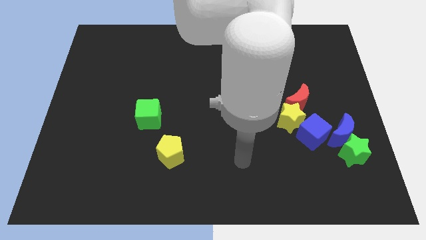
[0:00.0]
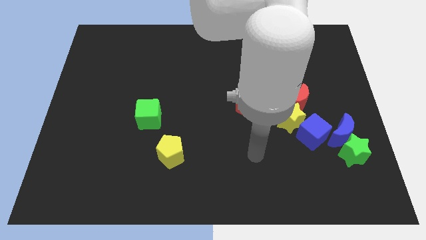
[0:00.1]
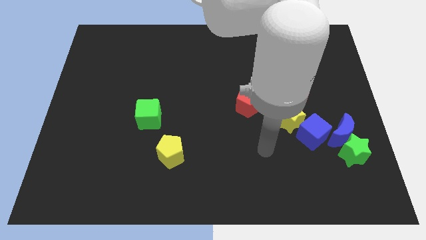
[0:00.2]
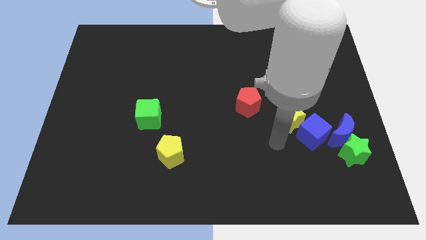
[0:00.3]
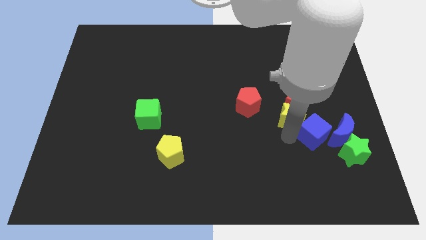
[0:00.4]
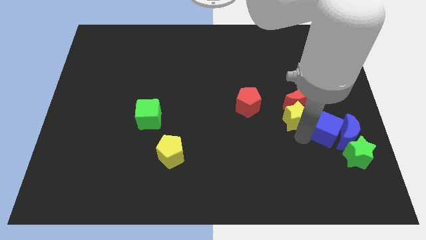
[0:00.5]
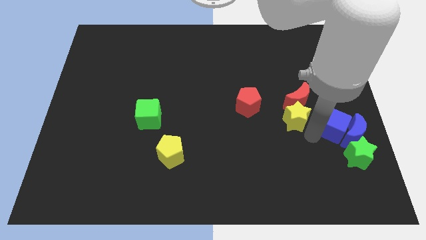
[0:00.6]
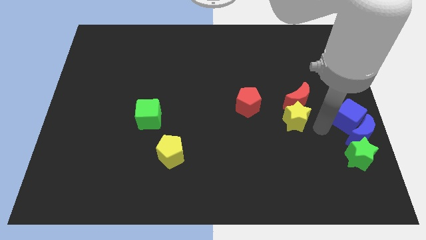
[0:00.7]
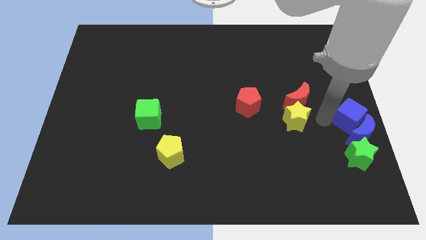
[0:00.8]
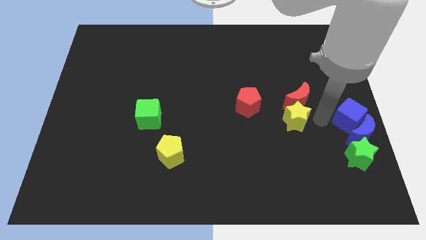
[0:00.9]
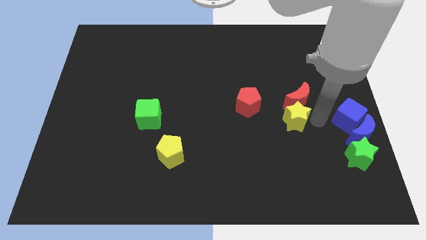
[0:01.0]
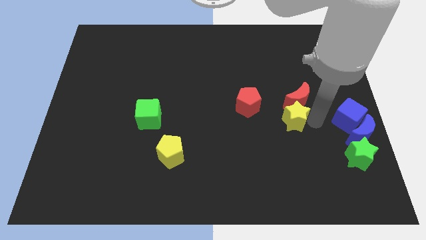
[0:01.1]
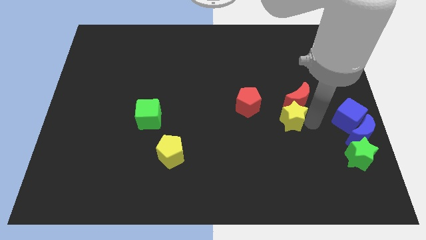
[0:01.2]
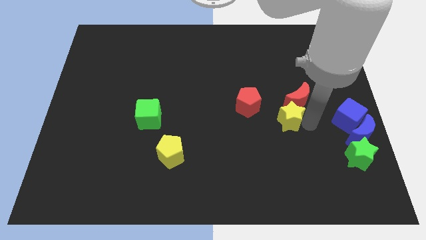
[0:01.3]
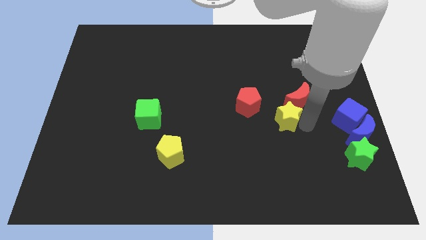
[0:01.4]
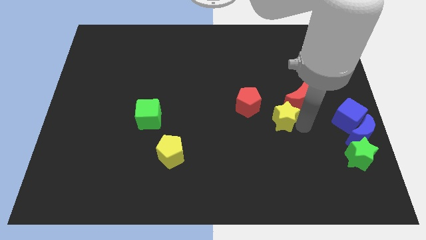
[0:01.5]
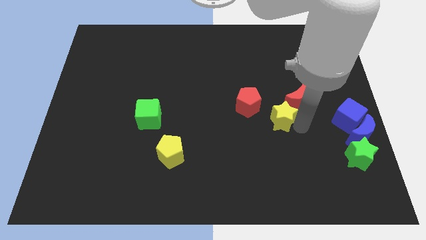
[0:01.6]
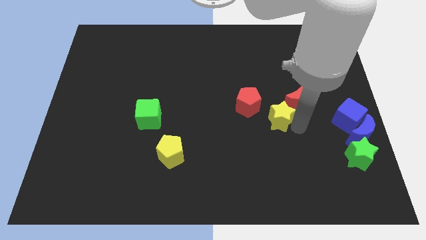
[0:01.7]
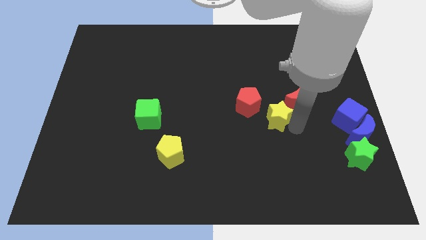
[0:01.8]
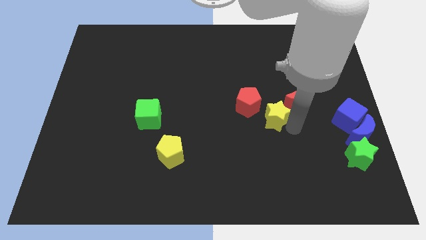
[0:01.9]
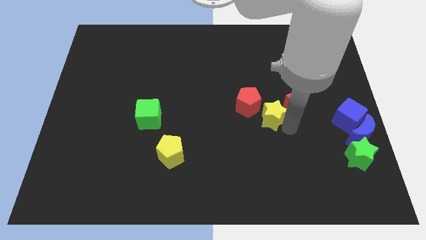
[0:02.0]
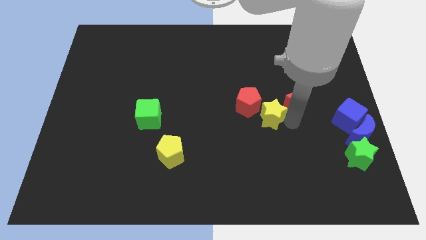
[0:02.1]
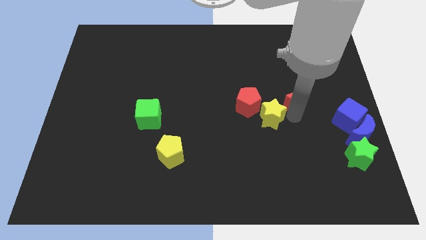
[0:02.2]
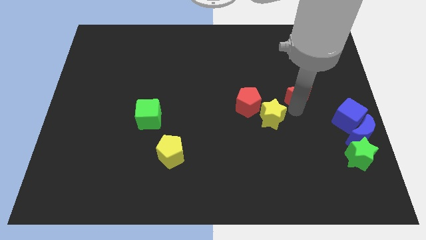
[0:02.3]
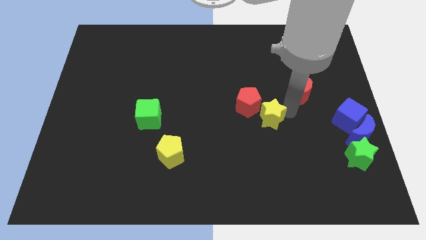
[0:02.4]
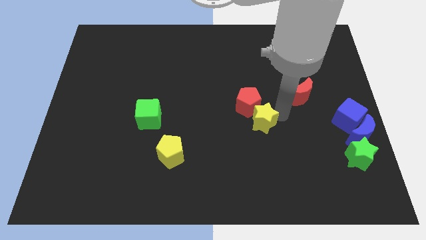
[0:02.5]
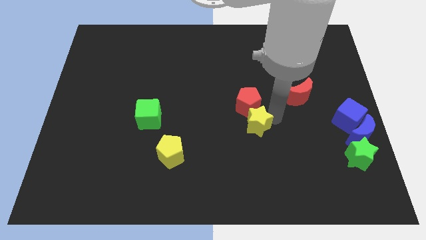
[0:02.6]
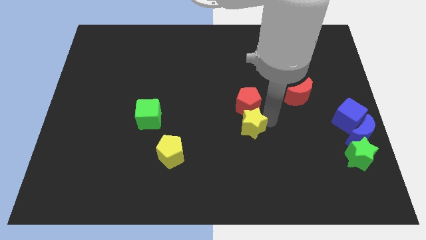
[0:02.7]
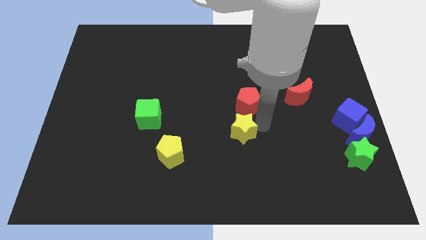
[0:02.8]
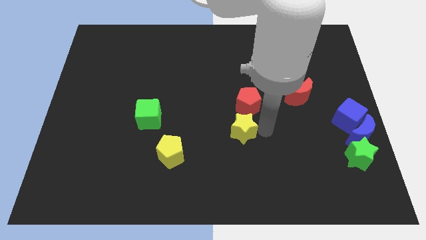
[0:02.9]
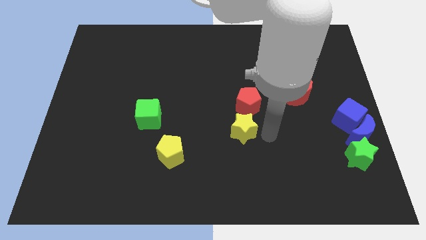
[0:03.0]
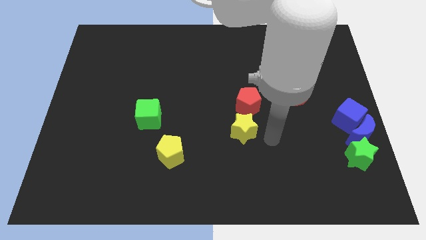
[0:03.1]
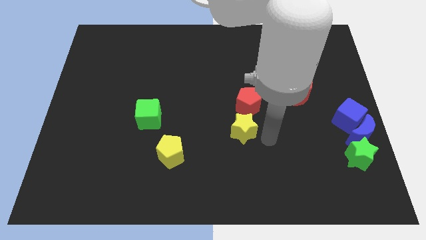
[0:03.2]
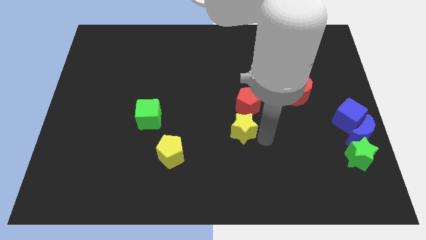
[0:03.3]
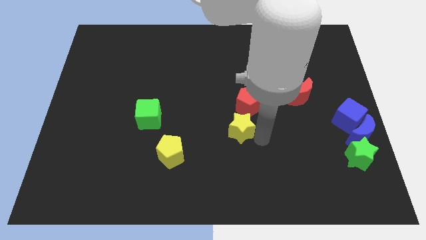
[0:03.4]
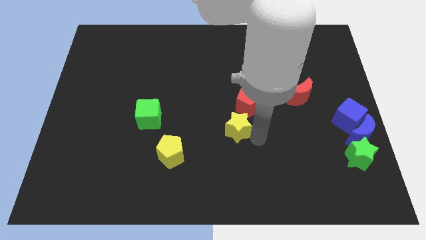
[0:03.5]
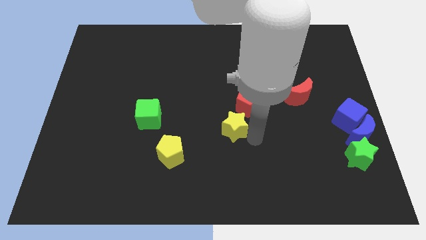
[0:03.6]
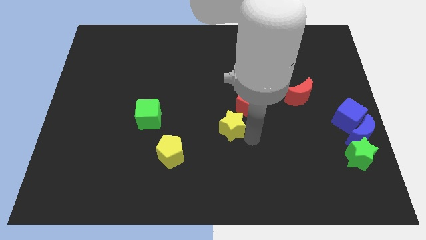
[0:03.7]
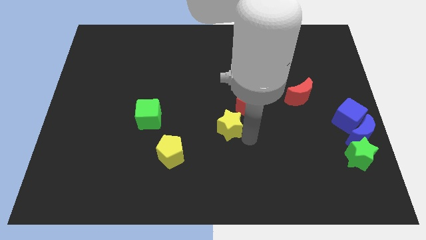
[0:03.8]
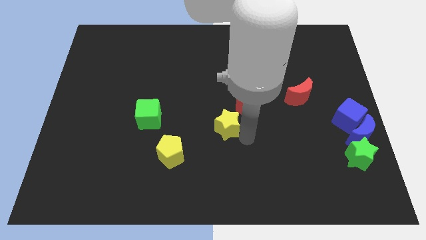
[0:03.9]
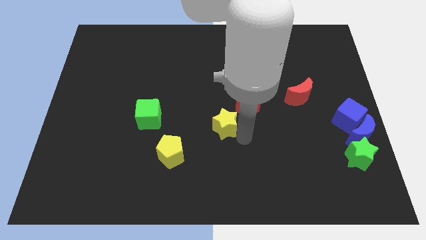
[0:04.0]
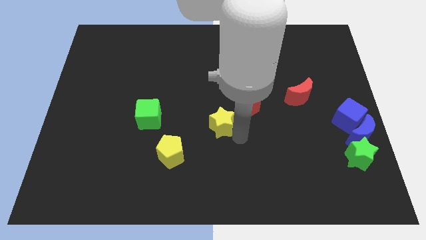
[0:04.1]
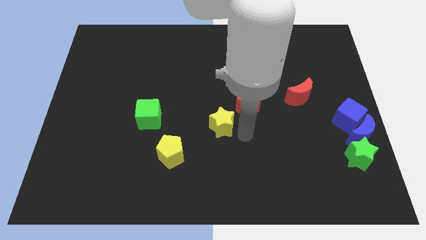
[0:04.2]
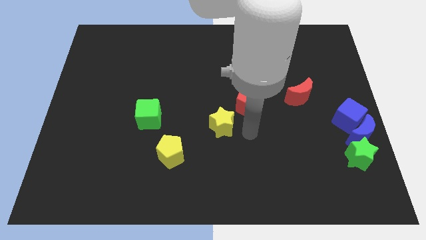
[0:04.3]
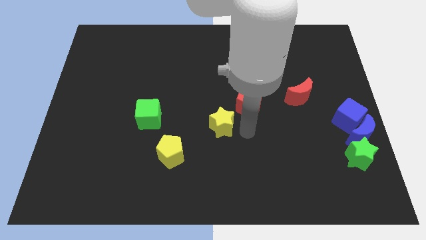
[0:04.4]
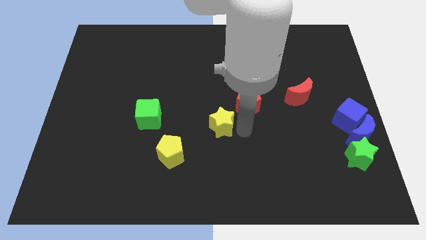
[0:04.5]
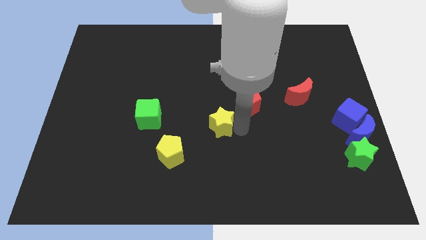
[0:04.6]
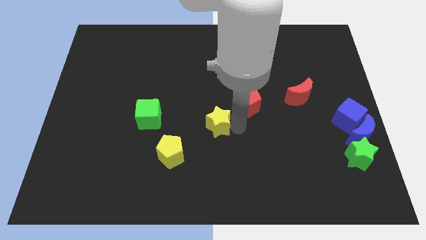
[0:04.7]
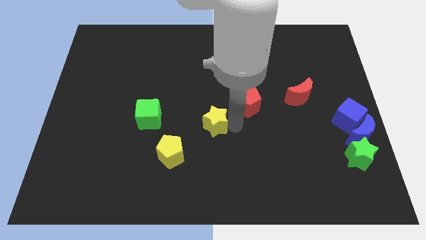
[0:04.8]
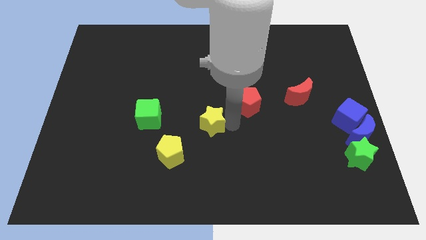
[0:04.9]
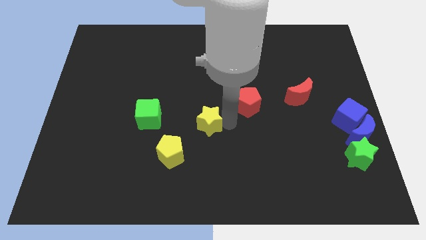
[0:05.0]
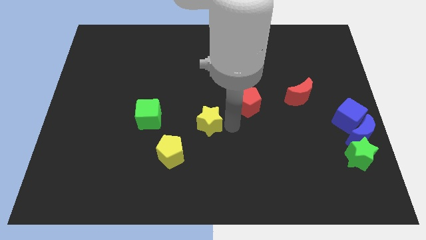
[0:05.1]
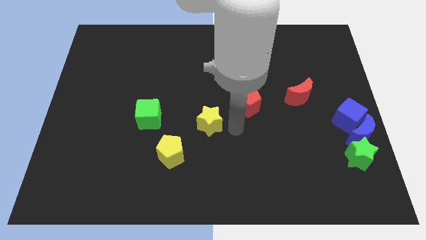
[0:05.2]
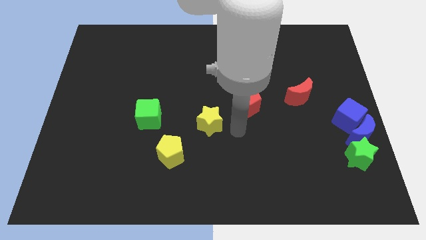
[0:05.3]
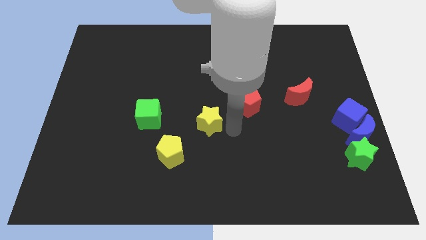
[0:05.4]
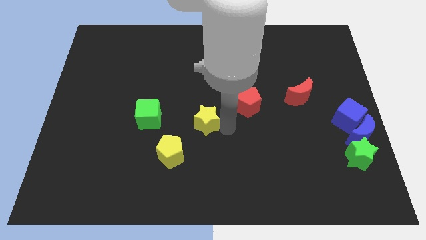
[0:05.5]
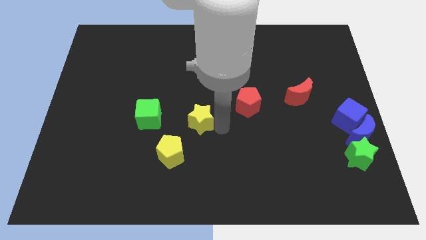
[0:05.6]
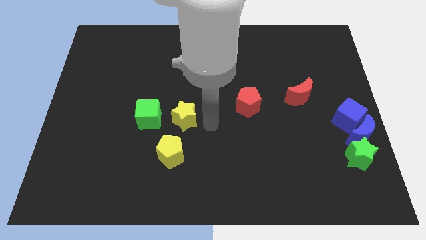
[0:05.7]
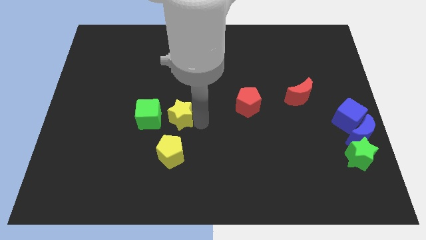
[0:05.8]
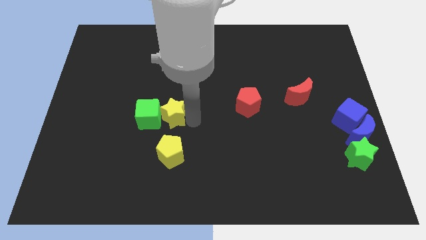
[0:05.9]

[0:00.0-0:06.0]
push the yellow star close to the green cube

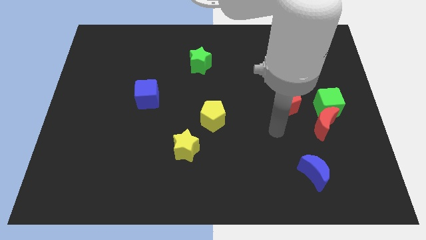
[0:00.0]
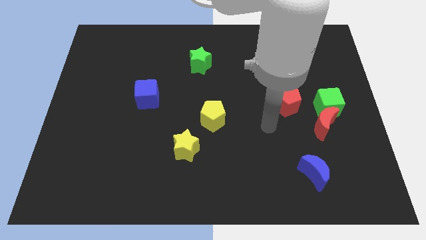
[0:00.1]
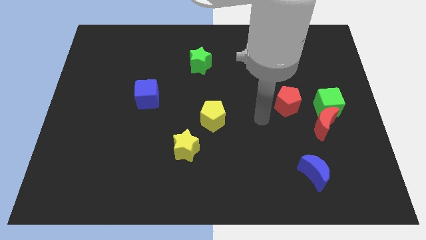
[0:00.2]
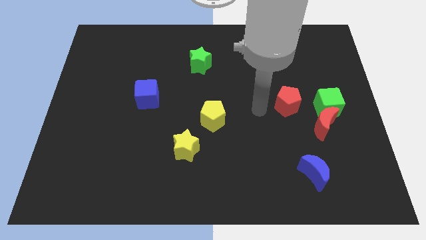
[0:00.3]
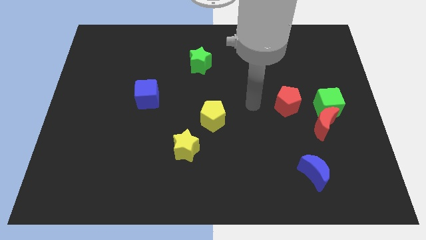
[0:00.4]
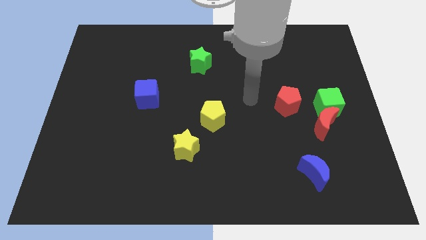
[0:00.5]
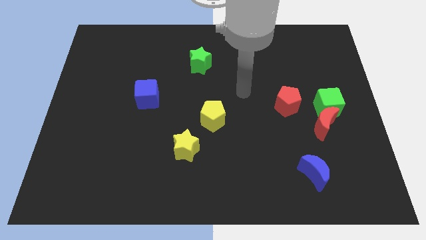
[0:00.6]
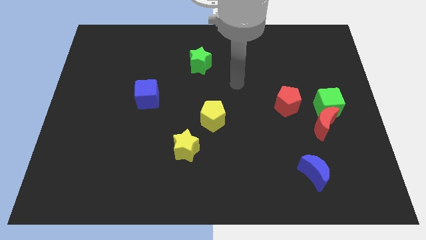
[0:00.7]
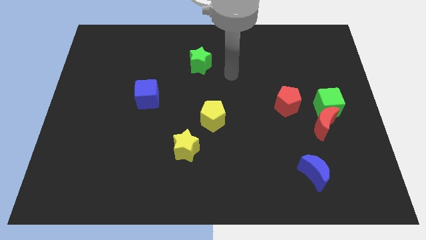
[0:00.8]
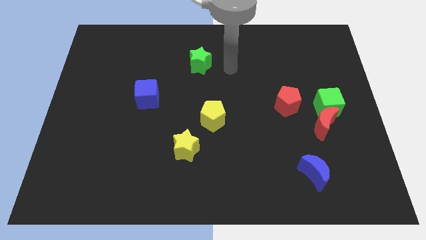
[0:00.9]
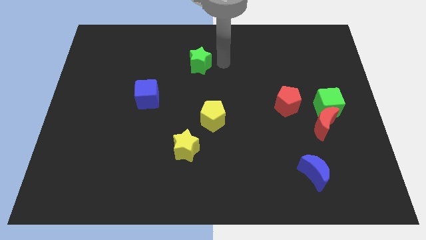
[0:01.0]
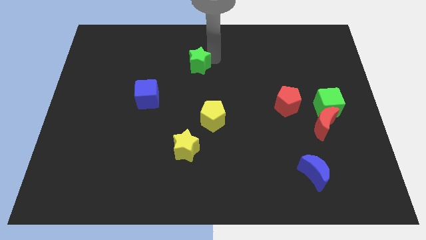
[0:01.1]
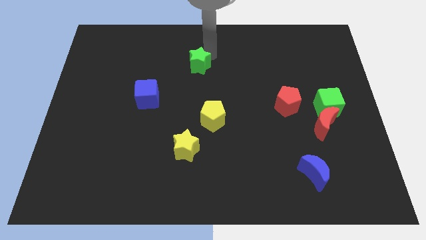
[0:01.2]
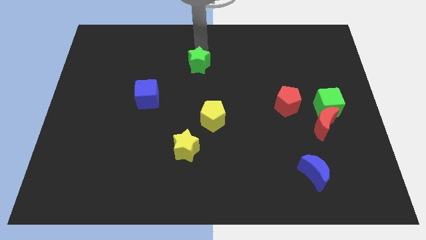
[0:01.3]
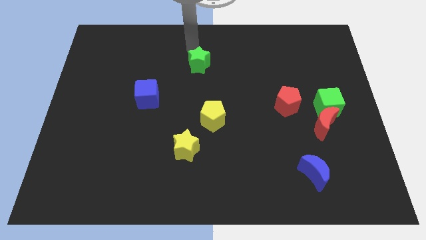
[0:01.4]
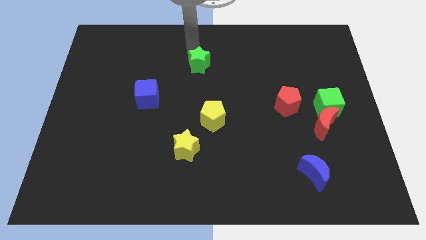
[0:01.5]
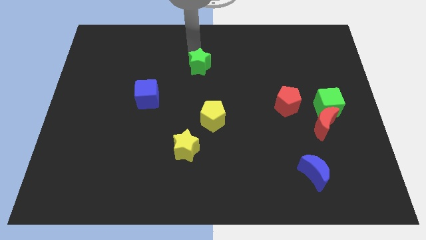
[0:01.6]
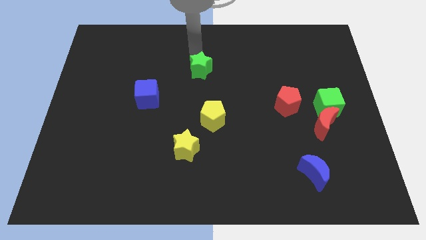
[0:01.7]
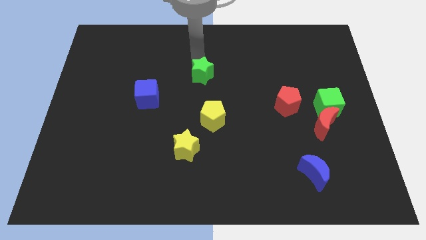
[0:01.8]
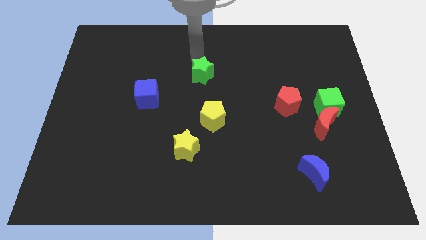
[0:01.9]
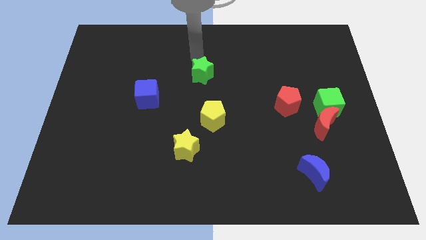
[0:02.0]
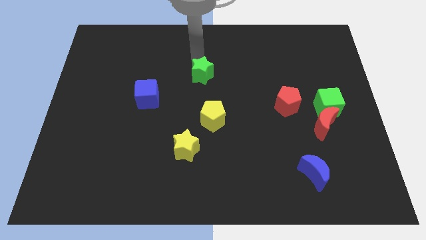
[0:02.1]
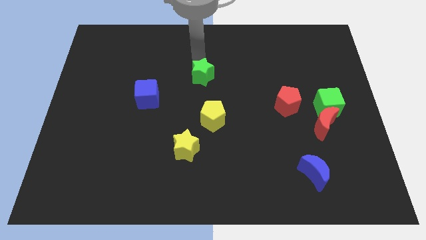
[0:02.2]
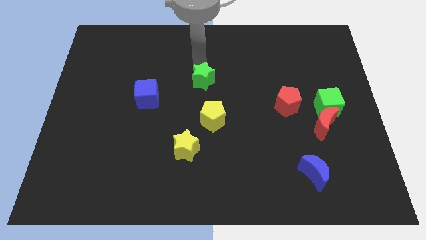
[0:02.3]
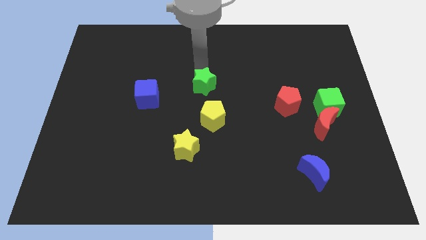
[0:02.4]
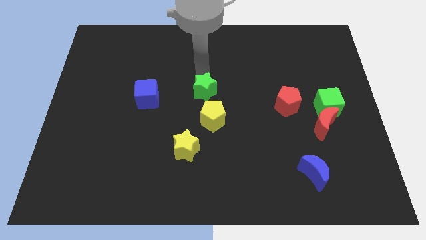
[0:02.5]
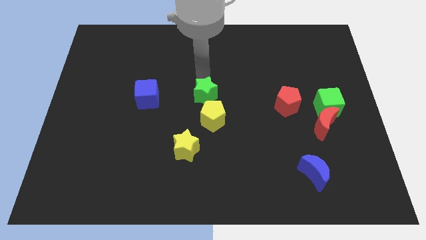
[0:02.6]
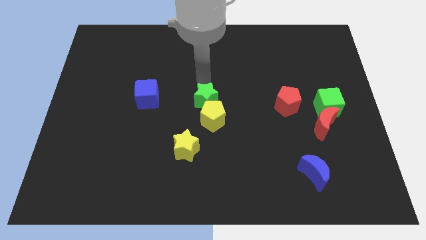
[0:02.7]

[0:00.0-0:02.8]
move the green star towards the yellow pentagon
